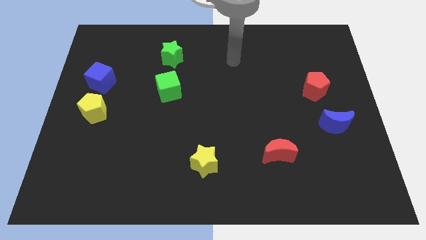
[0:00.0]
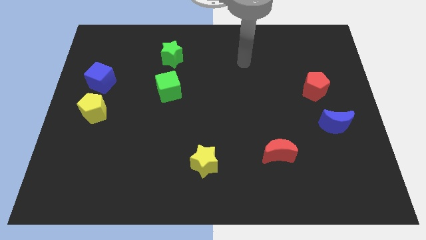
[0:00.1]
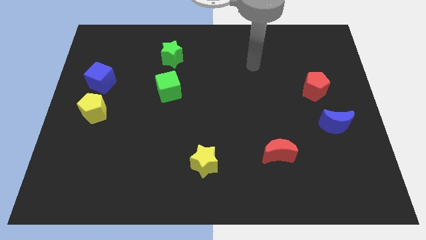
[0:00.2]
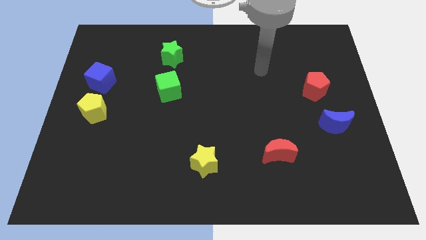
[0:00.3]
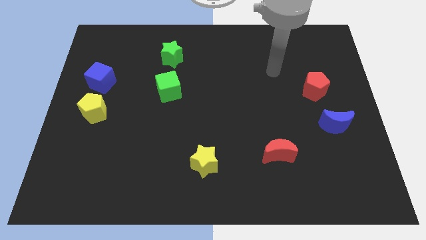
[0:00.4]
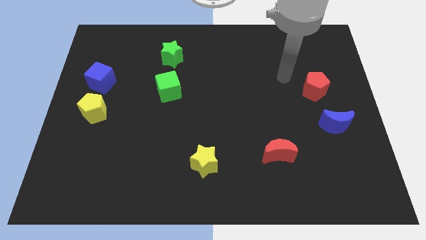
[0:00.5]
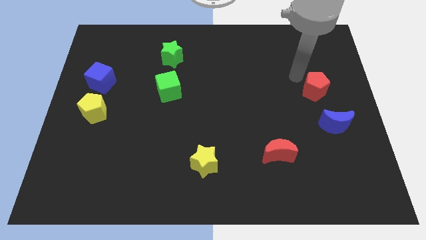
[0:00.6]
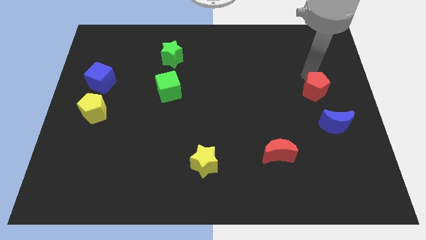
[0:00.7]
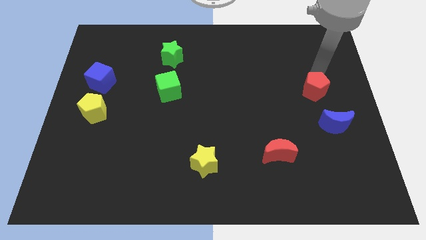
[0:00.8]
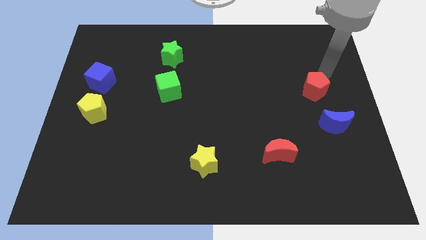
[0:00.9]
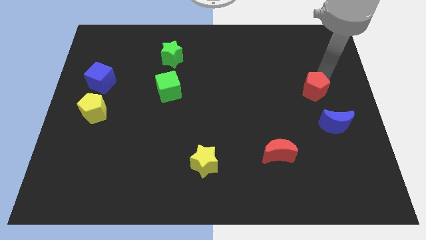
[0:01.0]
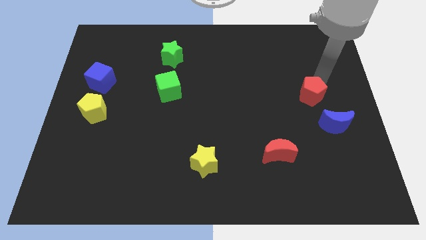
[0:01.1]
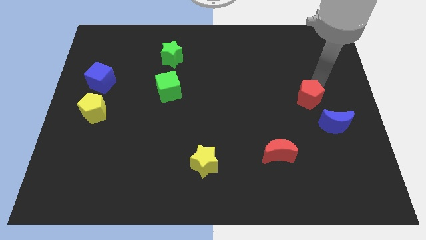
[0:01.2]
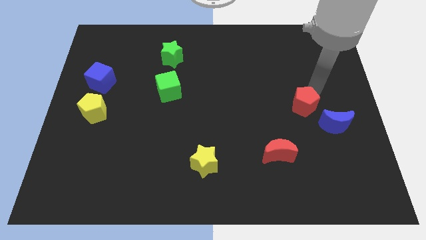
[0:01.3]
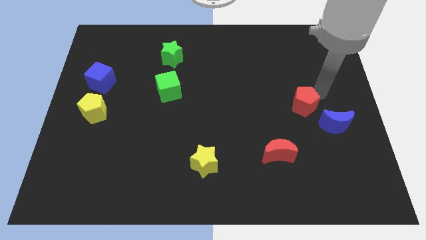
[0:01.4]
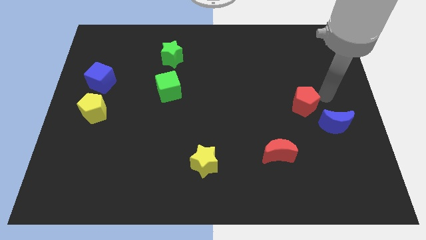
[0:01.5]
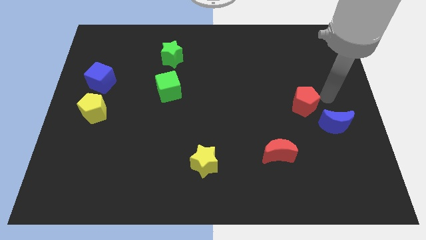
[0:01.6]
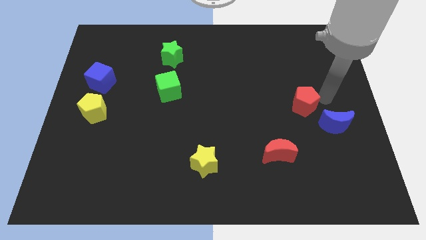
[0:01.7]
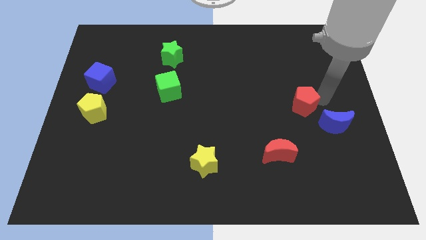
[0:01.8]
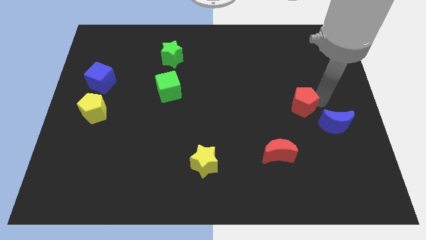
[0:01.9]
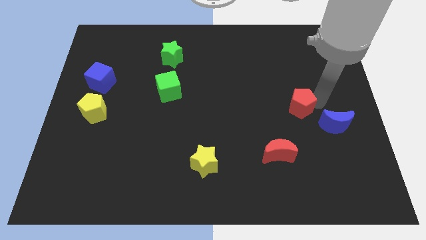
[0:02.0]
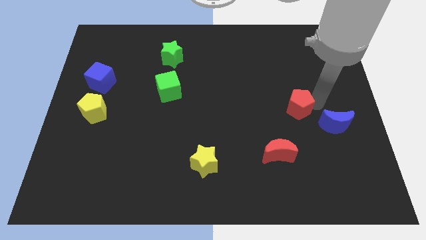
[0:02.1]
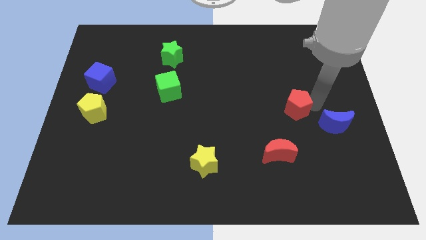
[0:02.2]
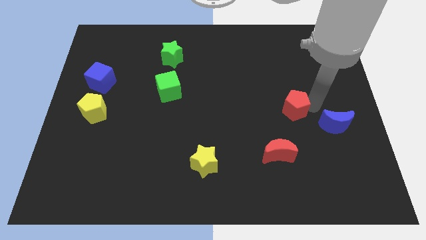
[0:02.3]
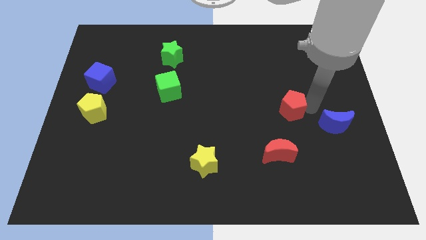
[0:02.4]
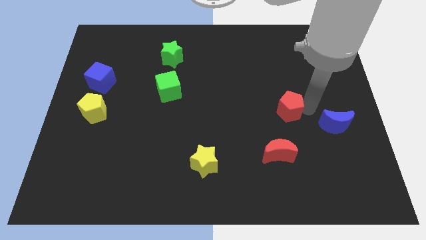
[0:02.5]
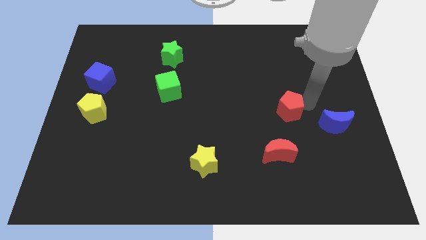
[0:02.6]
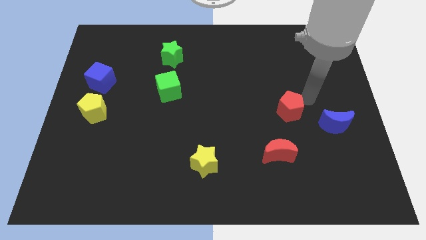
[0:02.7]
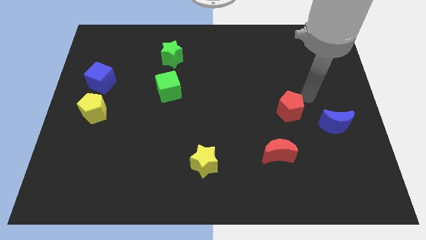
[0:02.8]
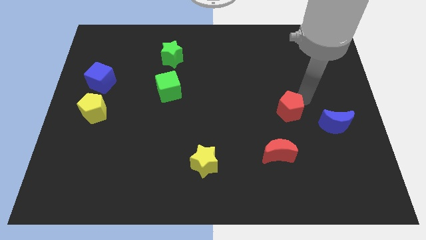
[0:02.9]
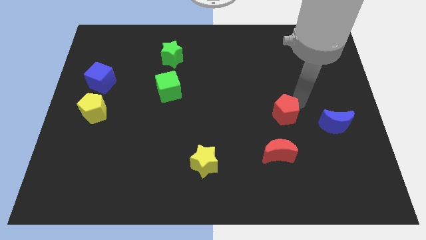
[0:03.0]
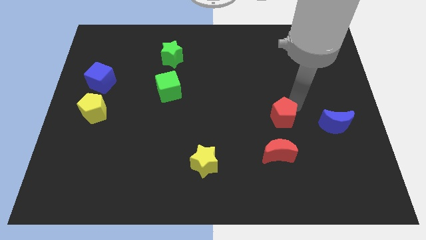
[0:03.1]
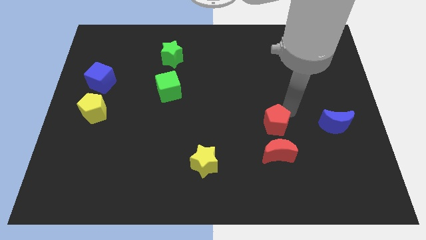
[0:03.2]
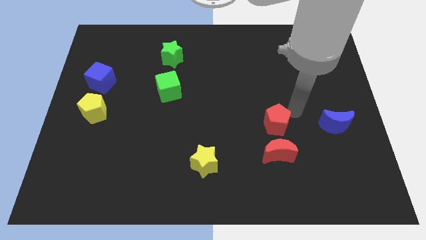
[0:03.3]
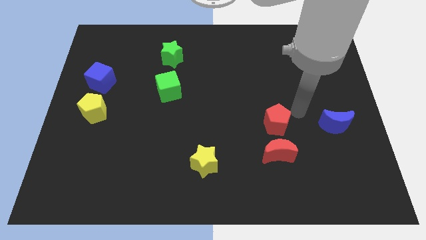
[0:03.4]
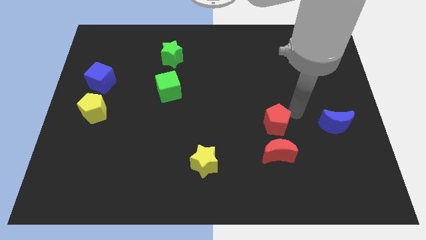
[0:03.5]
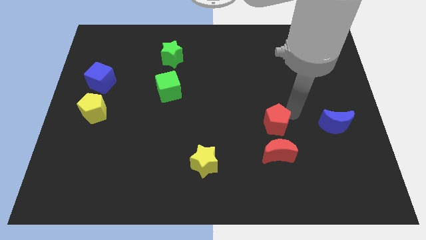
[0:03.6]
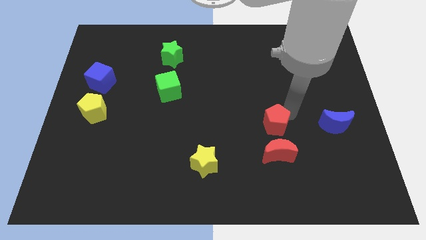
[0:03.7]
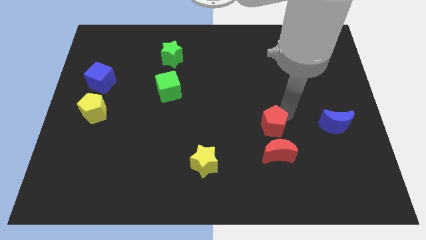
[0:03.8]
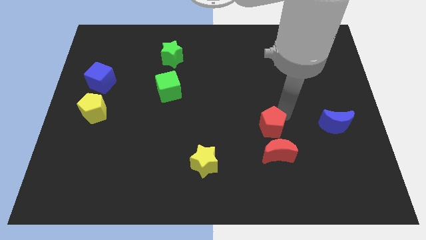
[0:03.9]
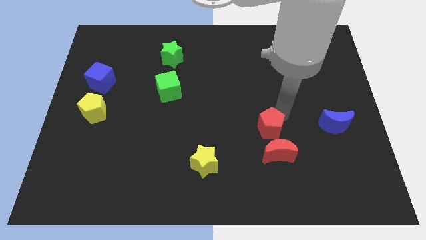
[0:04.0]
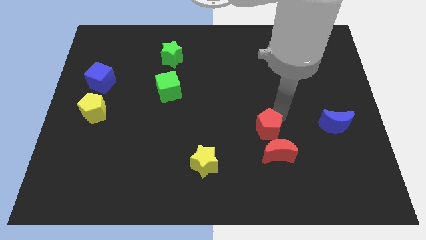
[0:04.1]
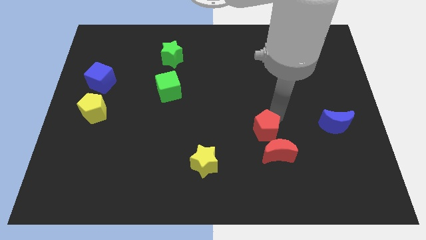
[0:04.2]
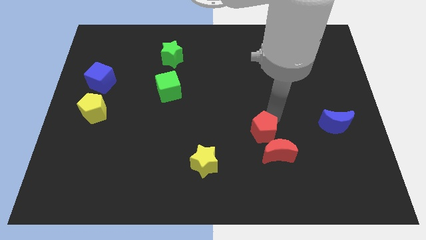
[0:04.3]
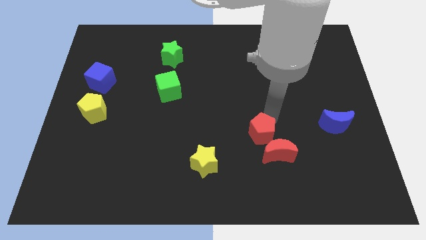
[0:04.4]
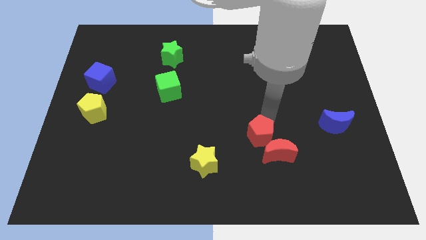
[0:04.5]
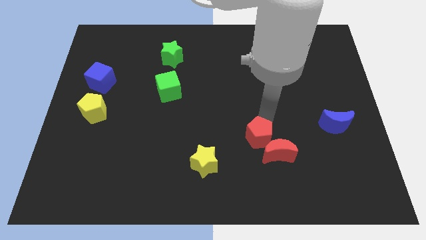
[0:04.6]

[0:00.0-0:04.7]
slide the red pentagon down and to the left diagonally

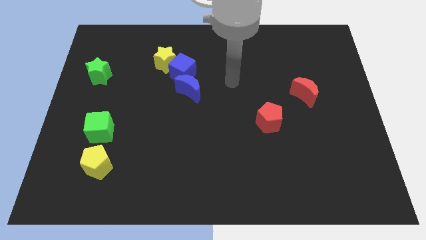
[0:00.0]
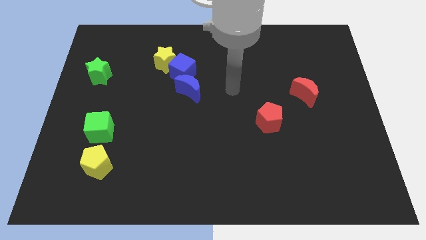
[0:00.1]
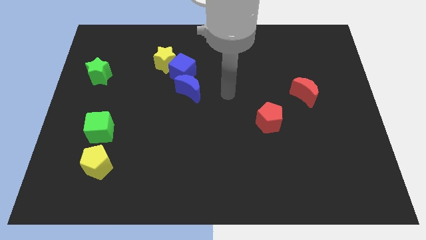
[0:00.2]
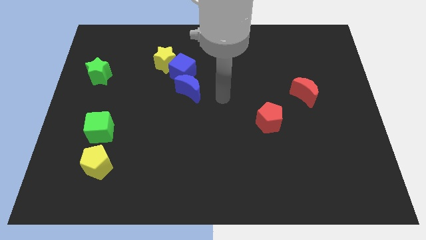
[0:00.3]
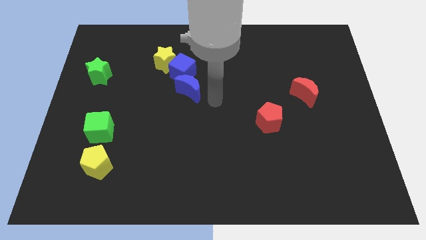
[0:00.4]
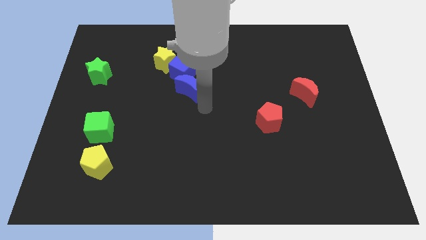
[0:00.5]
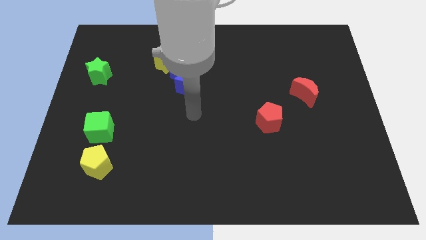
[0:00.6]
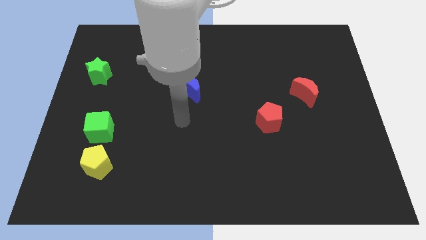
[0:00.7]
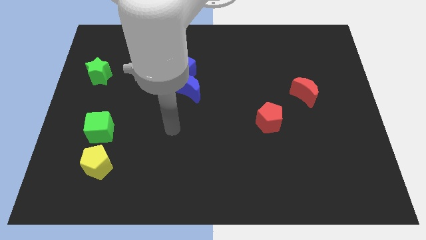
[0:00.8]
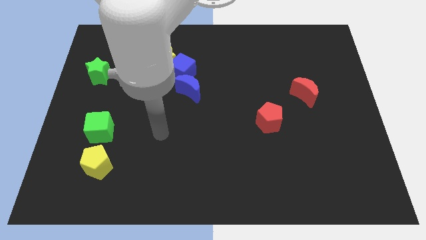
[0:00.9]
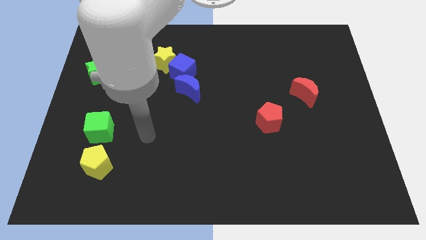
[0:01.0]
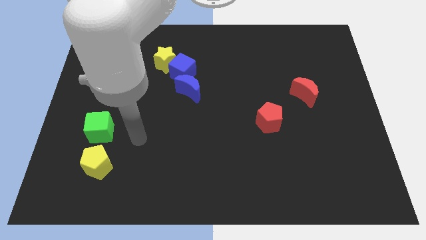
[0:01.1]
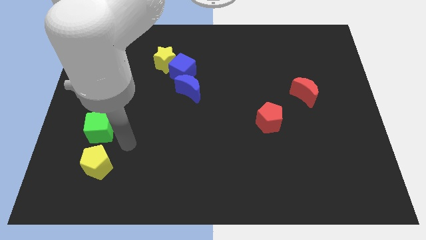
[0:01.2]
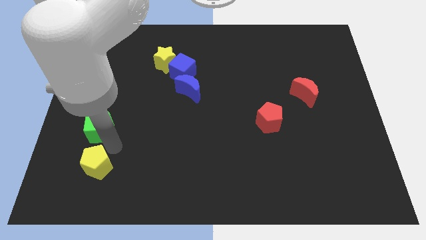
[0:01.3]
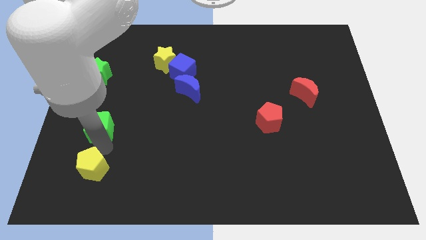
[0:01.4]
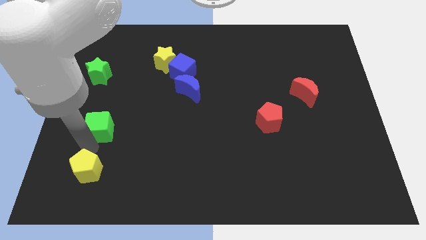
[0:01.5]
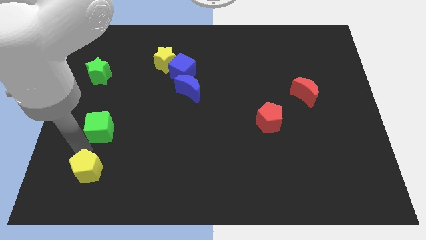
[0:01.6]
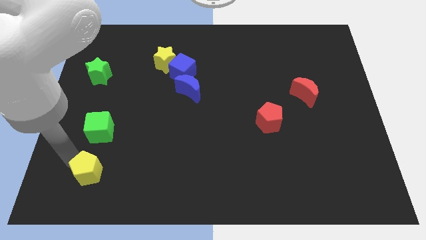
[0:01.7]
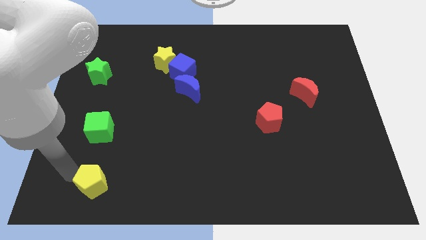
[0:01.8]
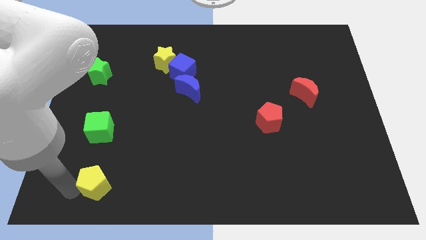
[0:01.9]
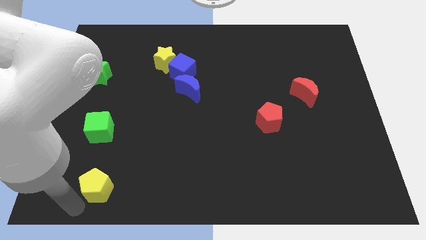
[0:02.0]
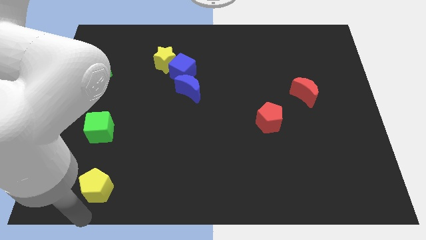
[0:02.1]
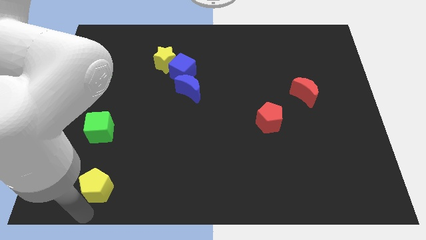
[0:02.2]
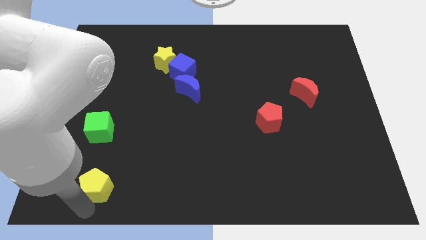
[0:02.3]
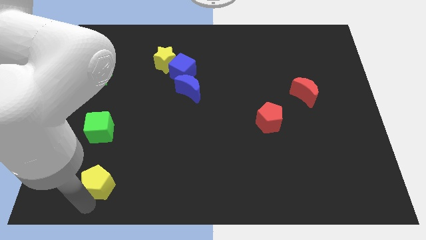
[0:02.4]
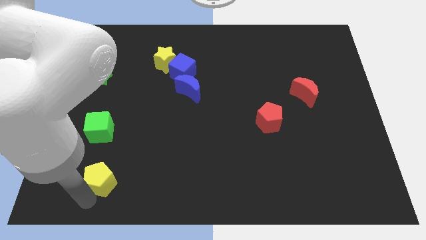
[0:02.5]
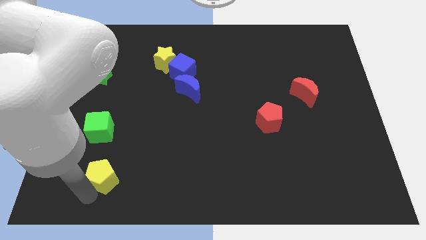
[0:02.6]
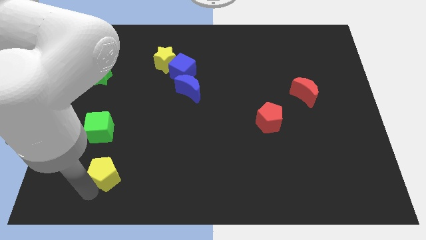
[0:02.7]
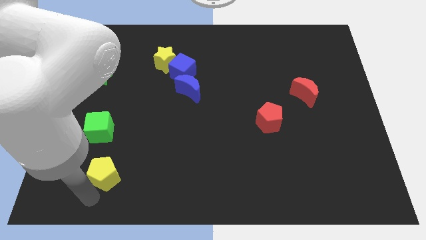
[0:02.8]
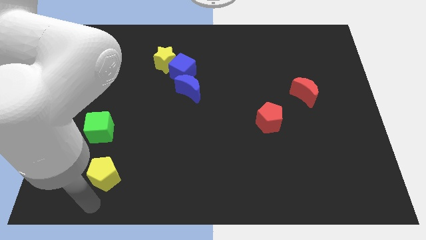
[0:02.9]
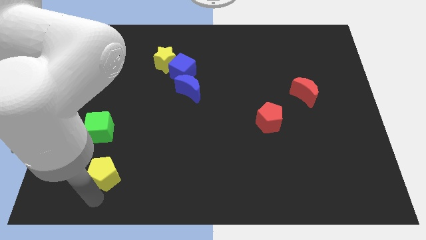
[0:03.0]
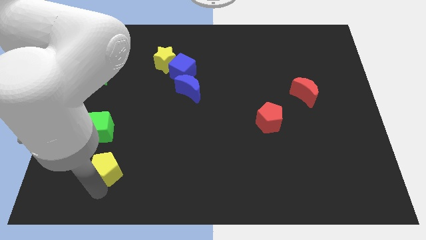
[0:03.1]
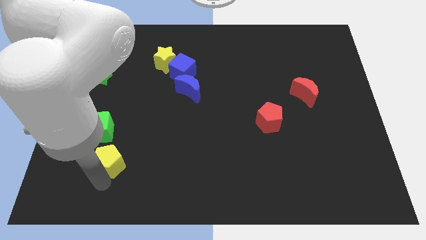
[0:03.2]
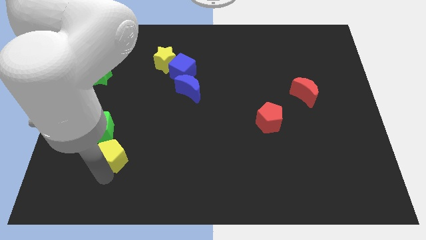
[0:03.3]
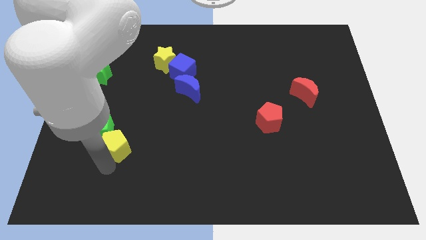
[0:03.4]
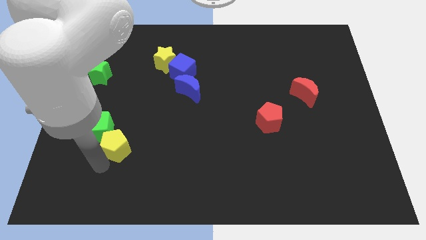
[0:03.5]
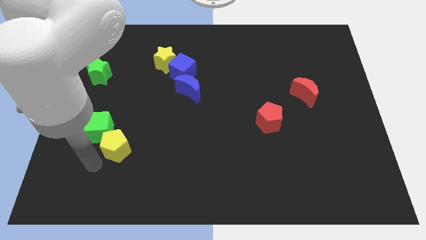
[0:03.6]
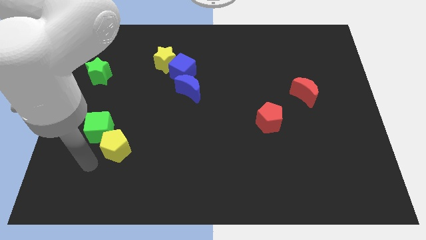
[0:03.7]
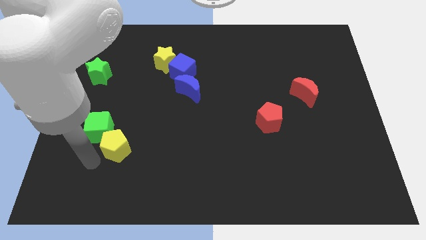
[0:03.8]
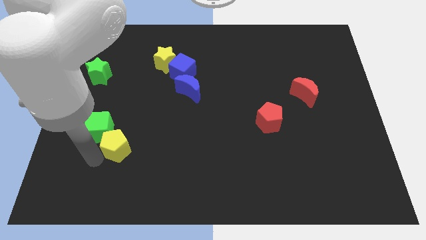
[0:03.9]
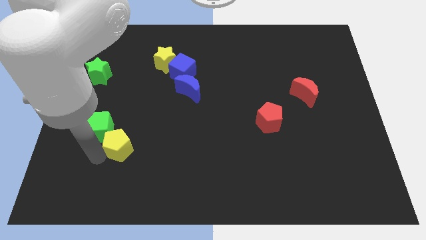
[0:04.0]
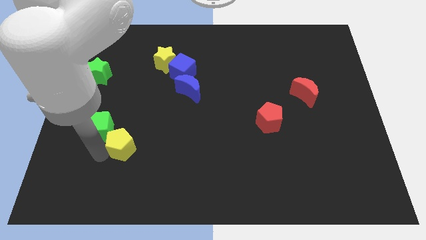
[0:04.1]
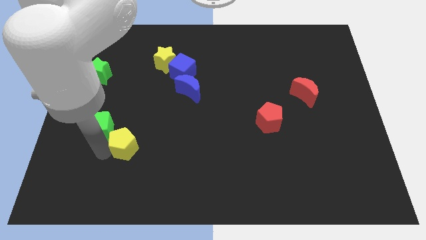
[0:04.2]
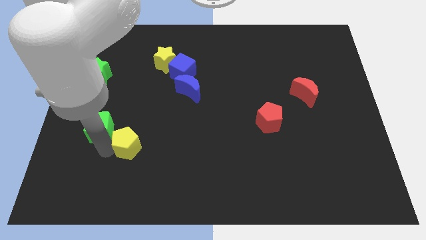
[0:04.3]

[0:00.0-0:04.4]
slightly slide the yellow pentagon upwards and to the right
